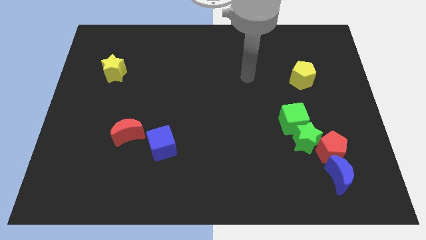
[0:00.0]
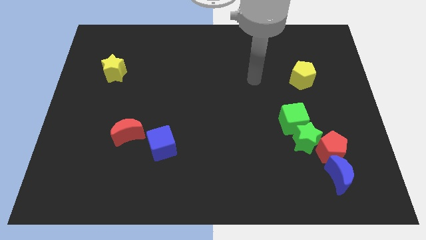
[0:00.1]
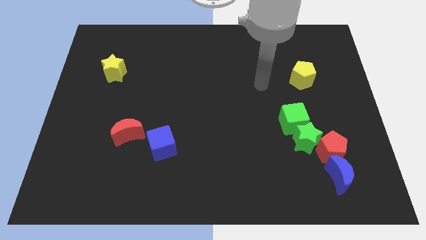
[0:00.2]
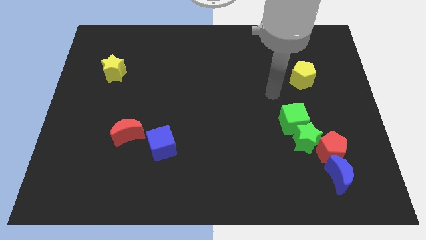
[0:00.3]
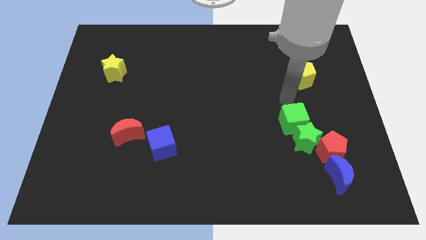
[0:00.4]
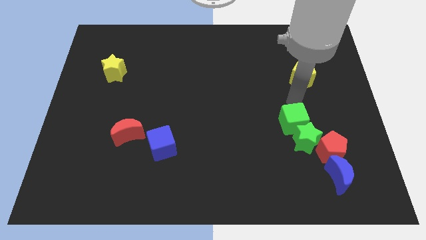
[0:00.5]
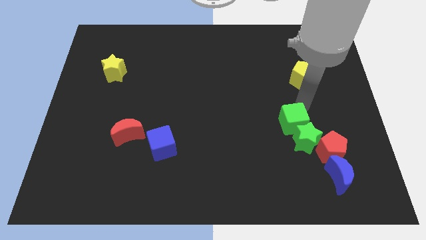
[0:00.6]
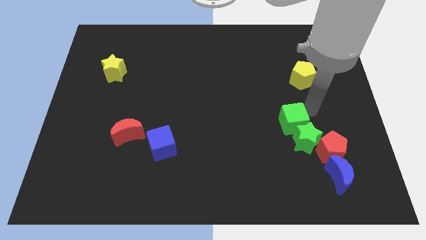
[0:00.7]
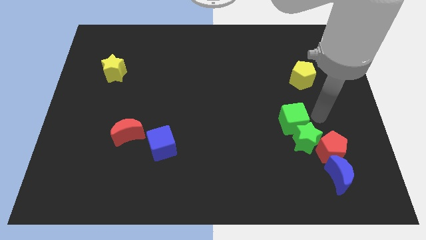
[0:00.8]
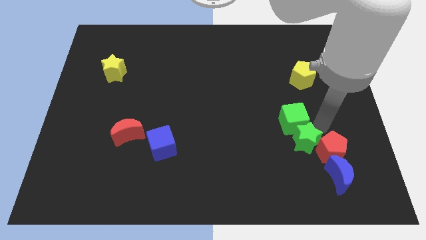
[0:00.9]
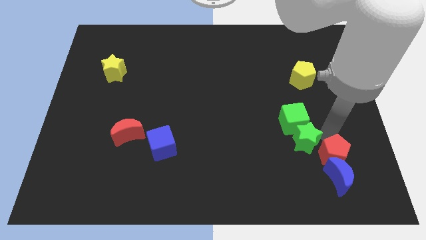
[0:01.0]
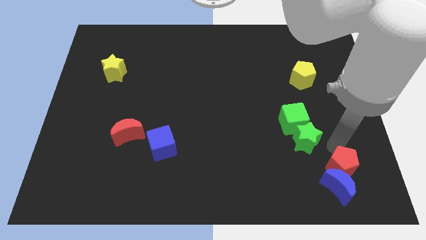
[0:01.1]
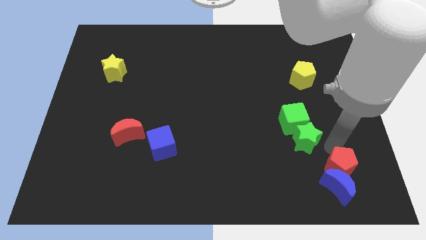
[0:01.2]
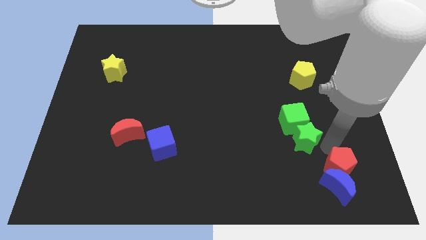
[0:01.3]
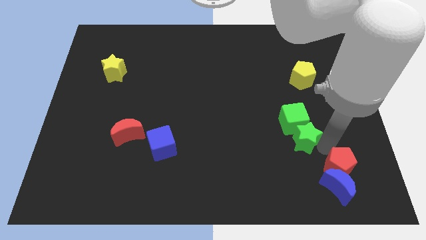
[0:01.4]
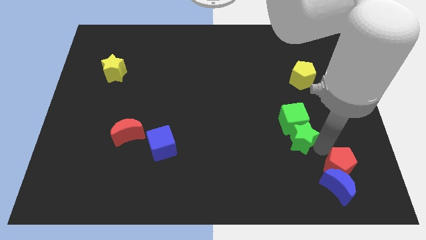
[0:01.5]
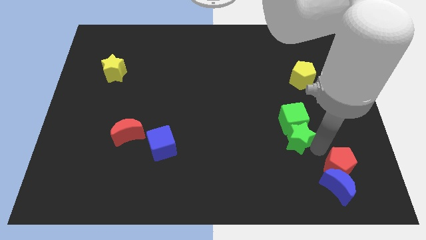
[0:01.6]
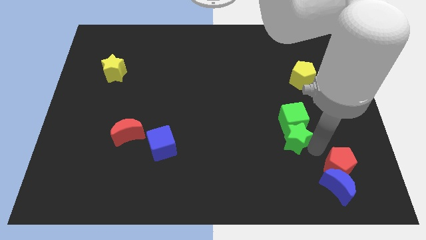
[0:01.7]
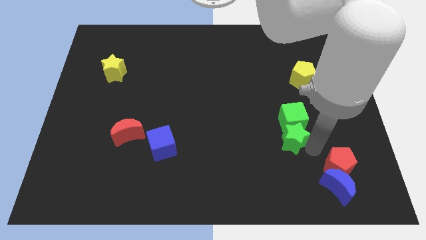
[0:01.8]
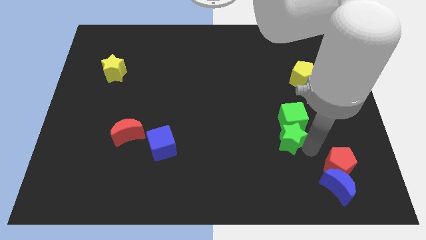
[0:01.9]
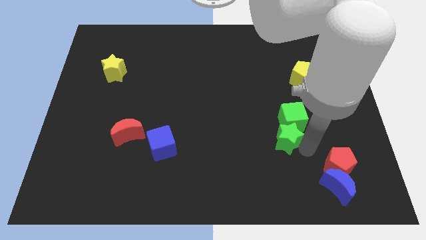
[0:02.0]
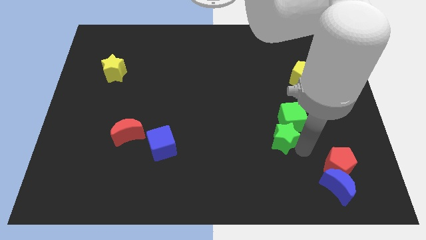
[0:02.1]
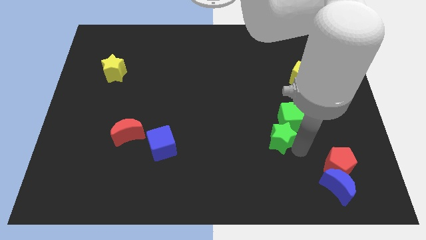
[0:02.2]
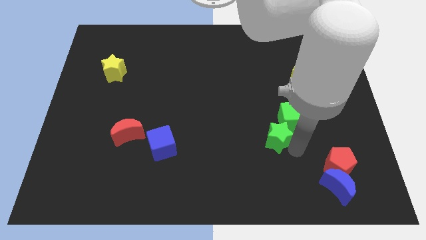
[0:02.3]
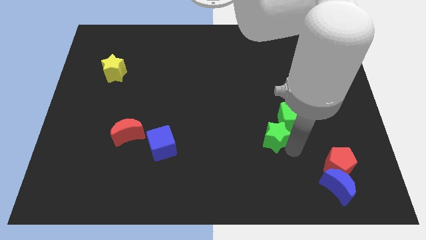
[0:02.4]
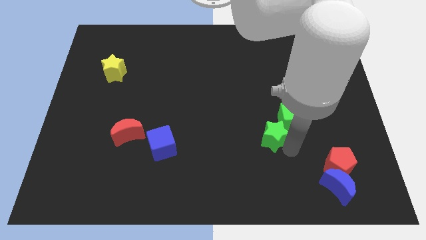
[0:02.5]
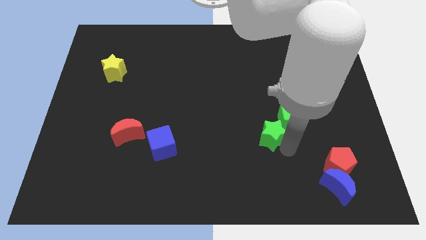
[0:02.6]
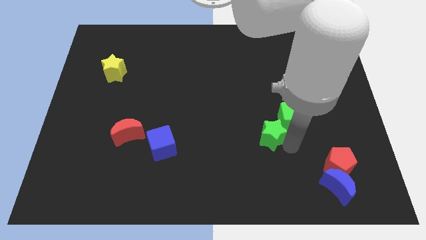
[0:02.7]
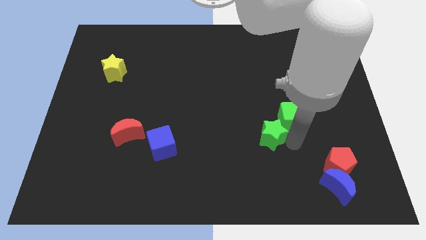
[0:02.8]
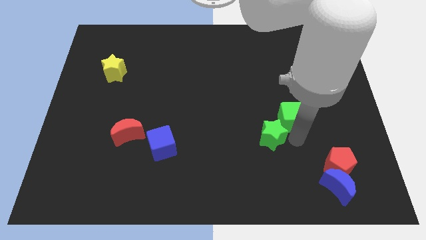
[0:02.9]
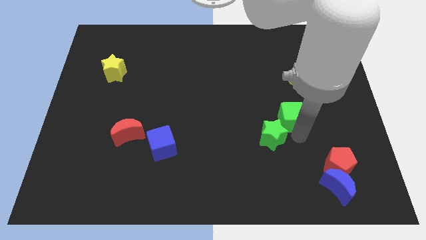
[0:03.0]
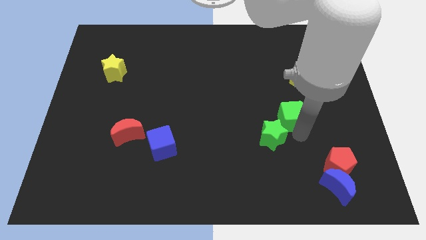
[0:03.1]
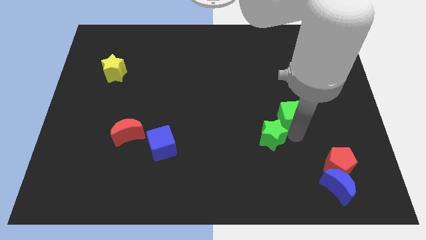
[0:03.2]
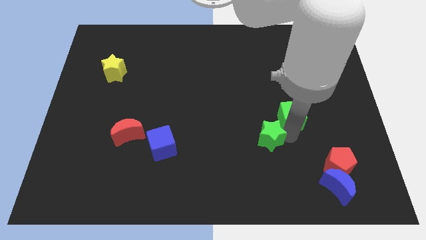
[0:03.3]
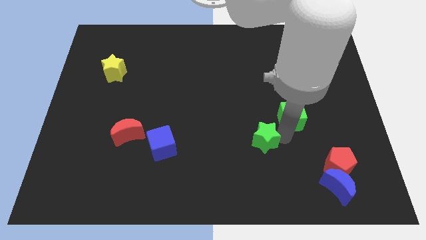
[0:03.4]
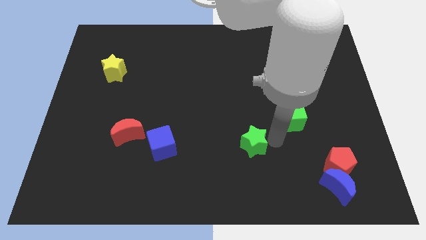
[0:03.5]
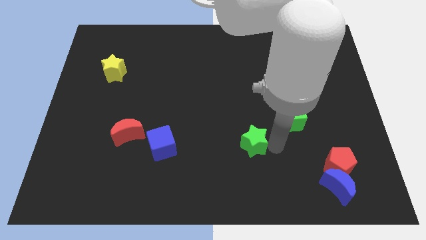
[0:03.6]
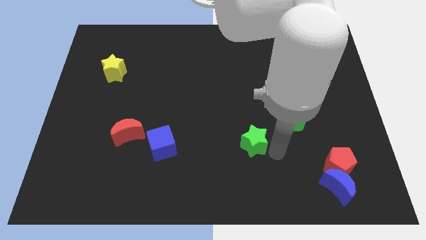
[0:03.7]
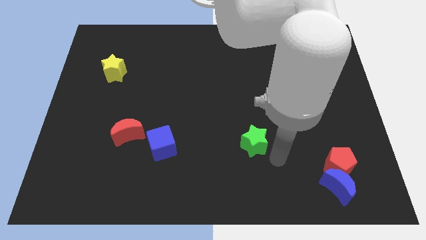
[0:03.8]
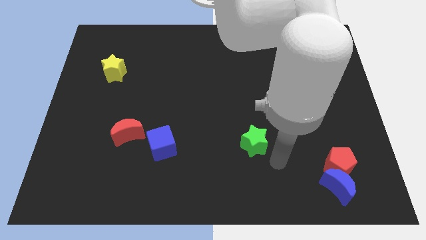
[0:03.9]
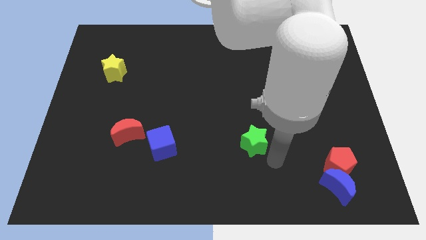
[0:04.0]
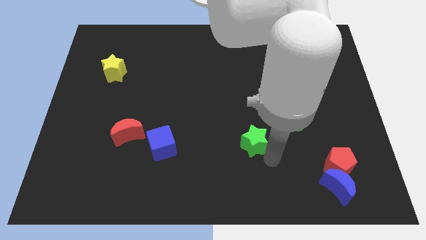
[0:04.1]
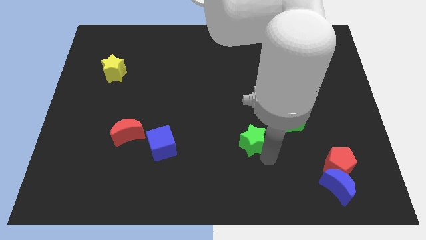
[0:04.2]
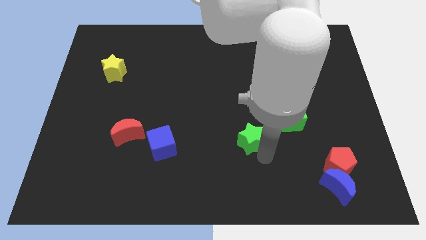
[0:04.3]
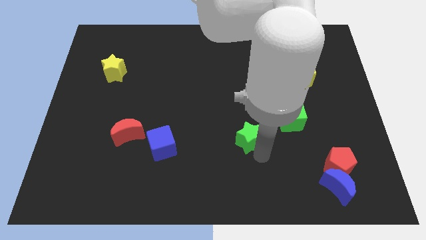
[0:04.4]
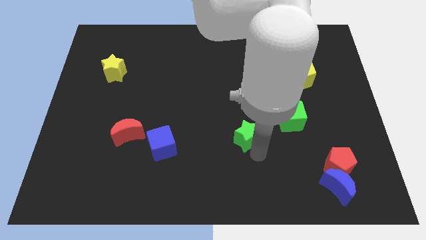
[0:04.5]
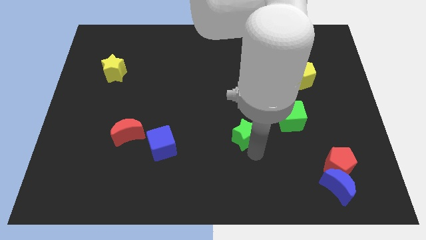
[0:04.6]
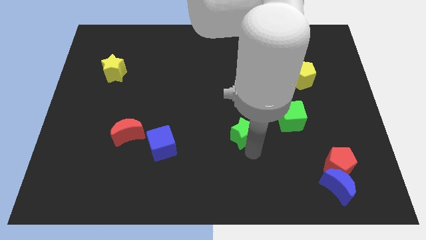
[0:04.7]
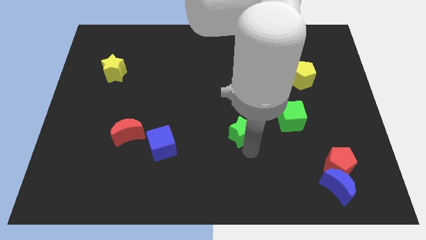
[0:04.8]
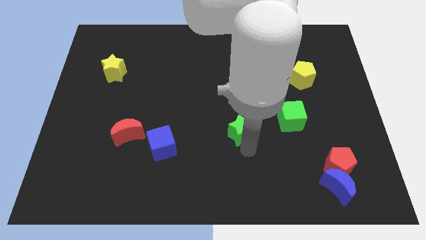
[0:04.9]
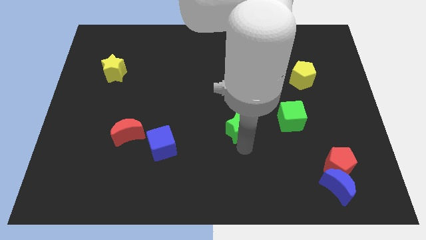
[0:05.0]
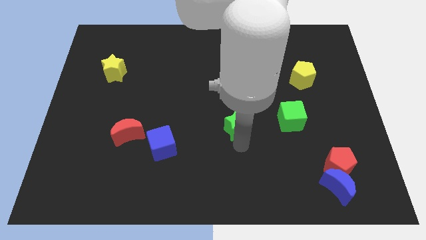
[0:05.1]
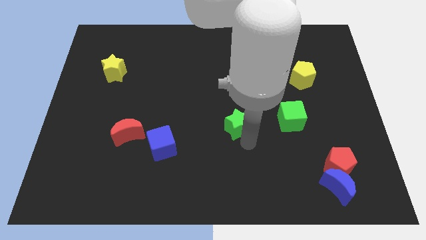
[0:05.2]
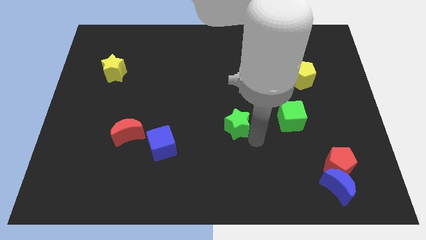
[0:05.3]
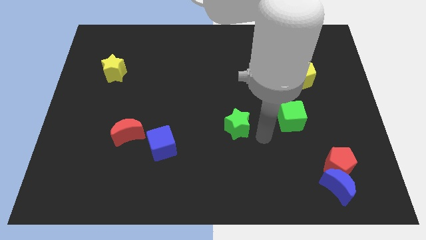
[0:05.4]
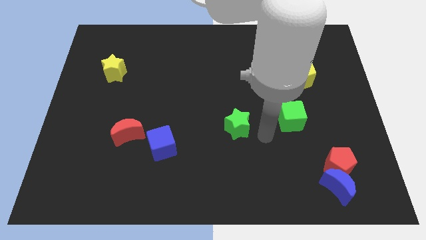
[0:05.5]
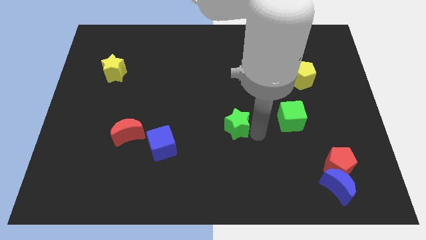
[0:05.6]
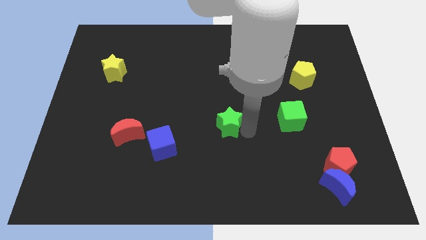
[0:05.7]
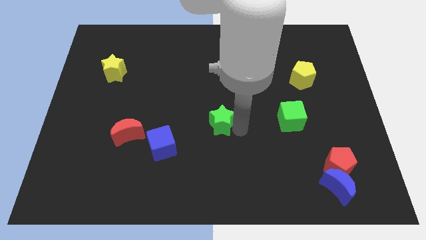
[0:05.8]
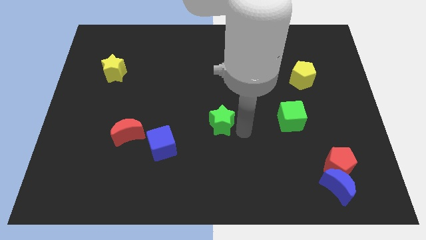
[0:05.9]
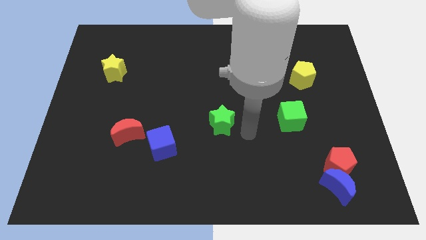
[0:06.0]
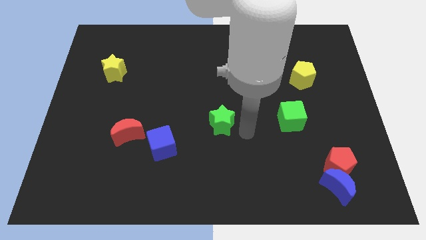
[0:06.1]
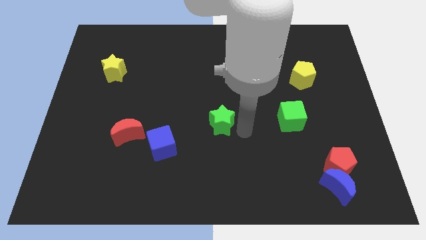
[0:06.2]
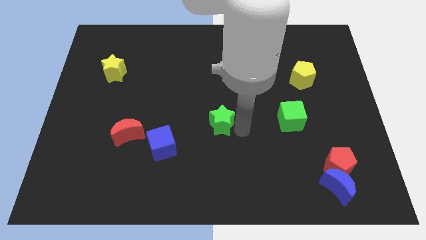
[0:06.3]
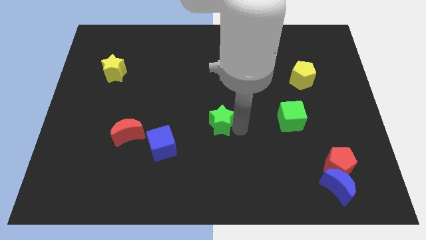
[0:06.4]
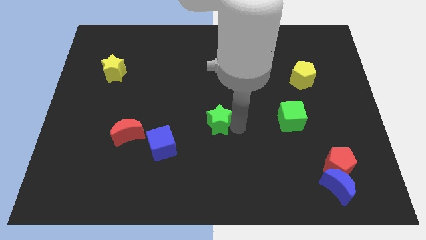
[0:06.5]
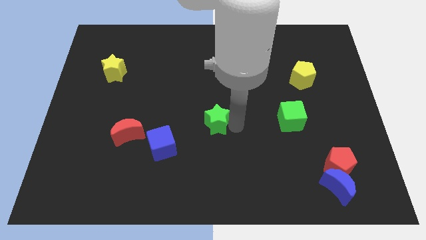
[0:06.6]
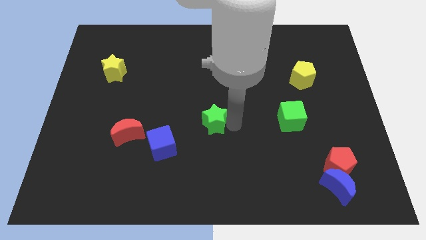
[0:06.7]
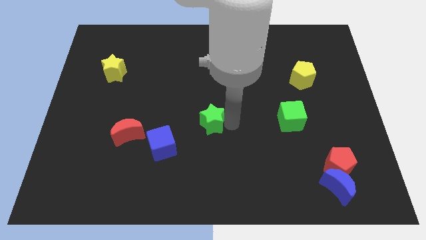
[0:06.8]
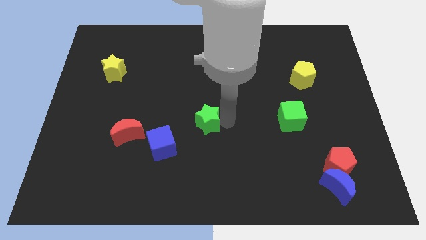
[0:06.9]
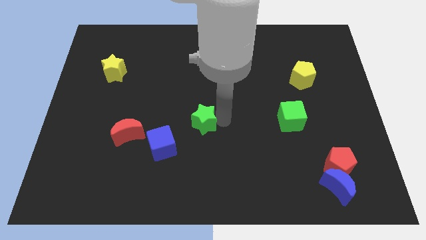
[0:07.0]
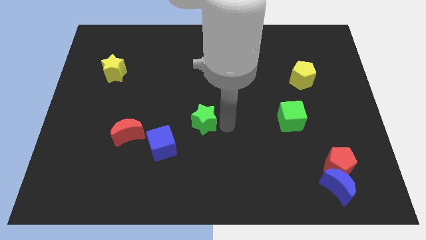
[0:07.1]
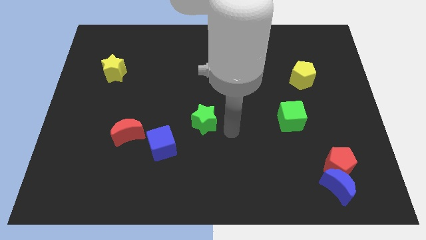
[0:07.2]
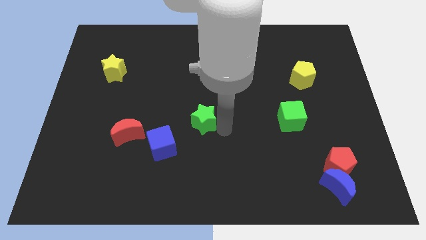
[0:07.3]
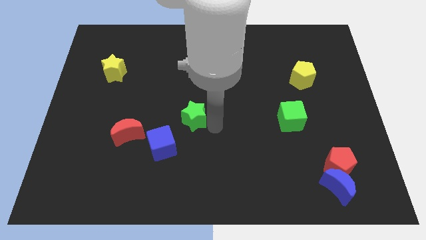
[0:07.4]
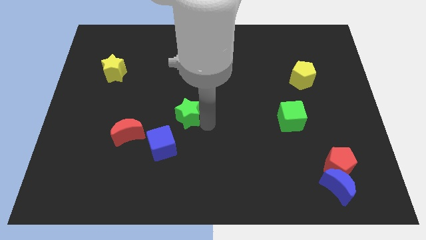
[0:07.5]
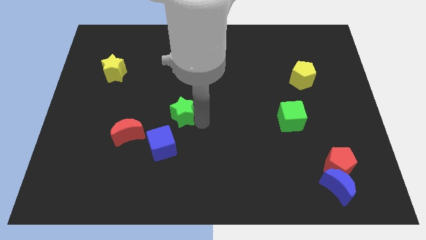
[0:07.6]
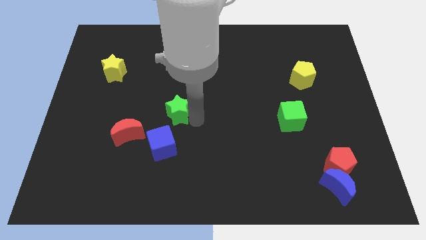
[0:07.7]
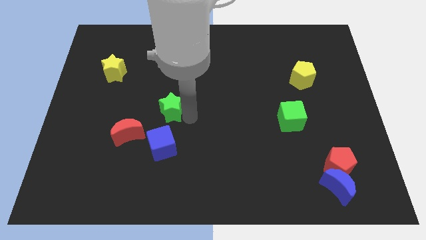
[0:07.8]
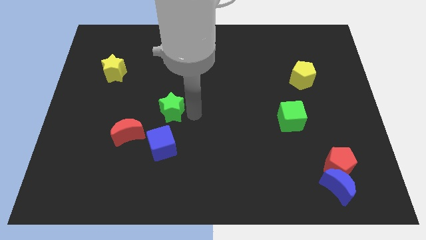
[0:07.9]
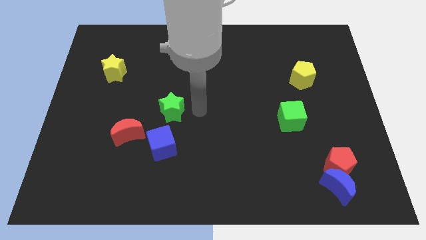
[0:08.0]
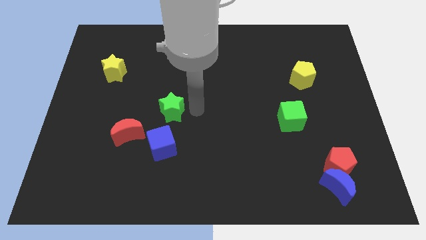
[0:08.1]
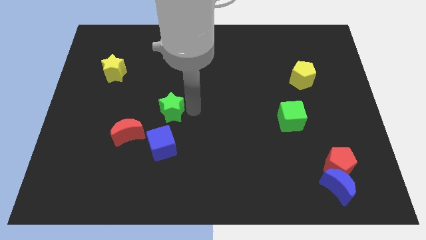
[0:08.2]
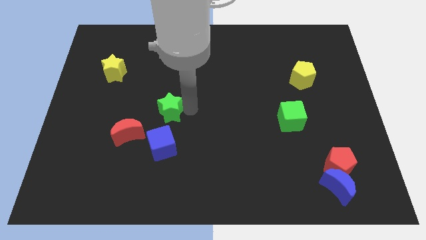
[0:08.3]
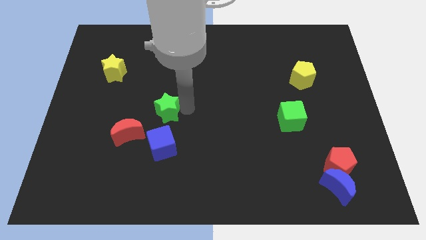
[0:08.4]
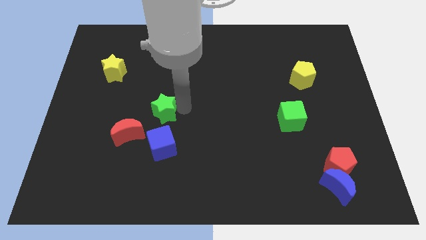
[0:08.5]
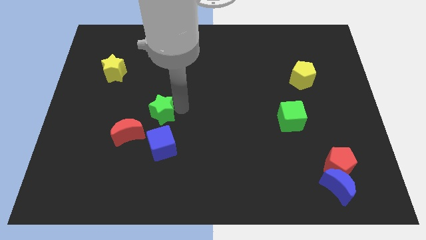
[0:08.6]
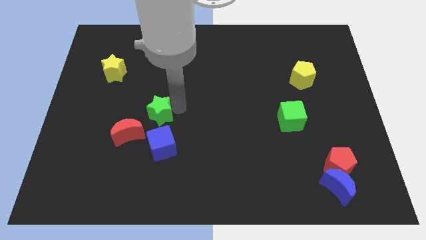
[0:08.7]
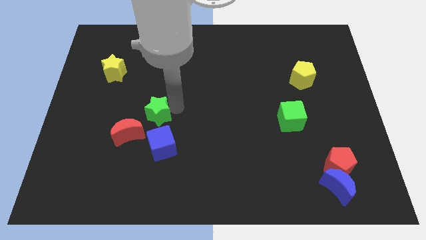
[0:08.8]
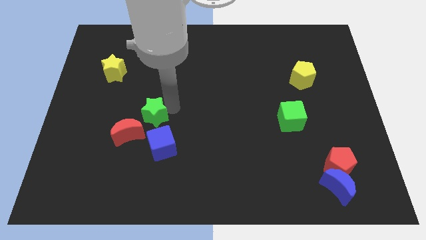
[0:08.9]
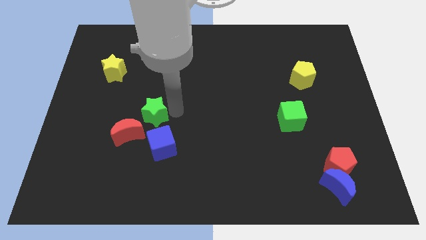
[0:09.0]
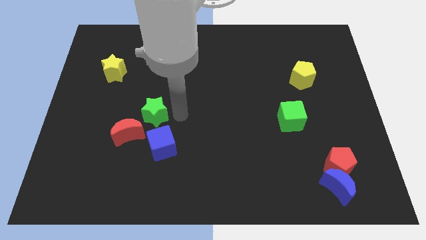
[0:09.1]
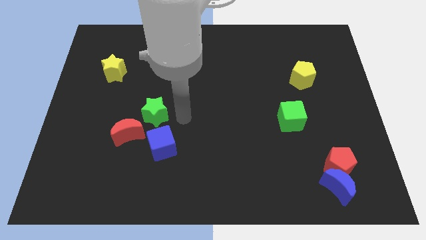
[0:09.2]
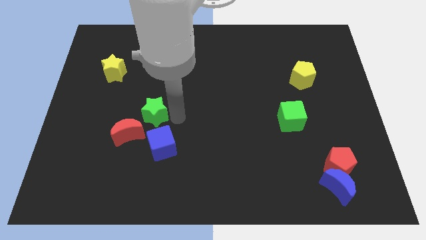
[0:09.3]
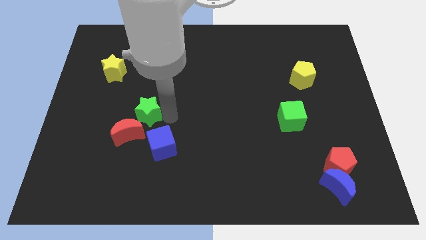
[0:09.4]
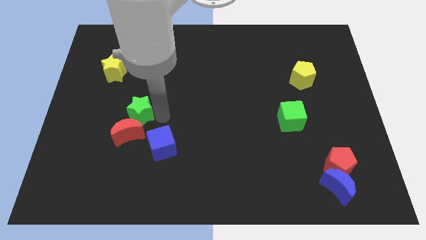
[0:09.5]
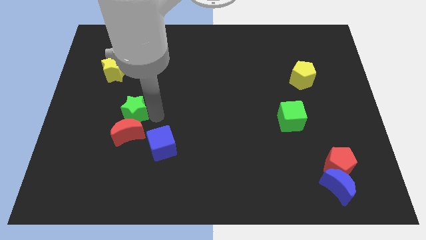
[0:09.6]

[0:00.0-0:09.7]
slide the green star to the top left side of the red moon
